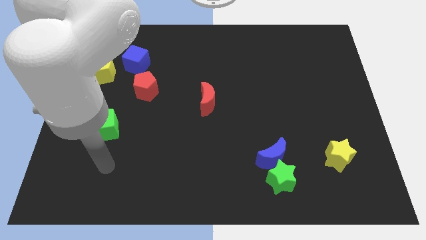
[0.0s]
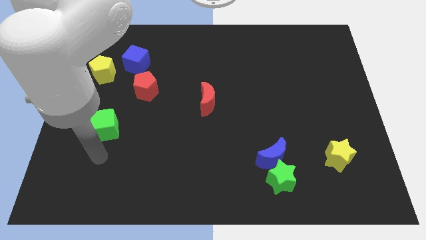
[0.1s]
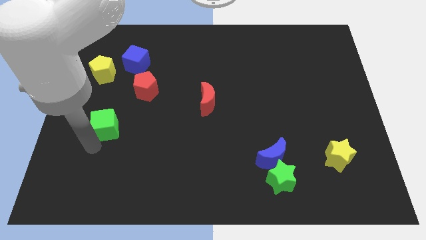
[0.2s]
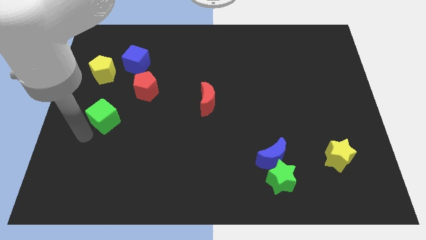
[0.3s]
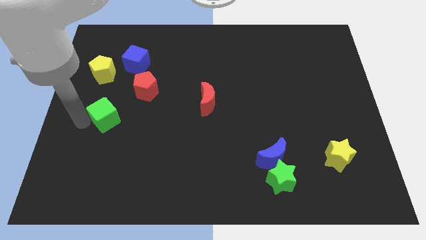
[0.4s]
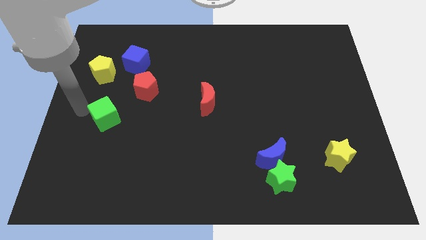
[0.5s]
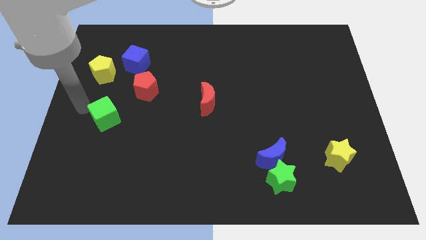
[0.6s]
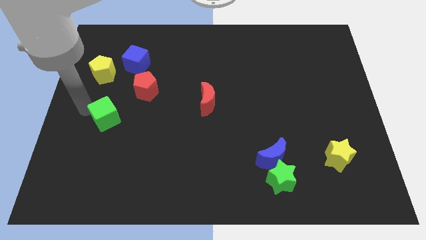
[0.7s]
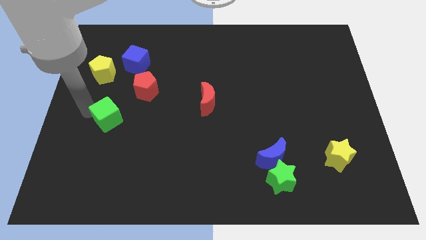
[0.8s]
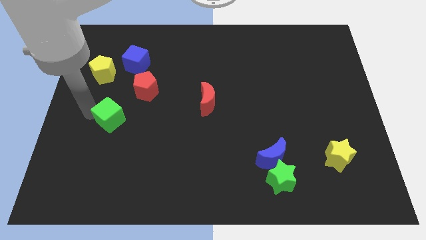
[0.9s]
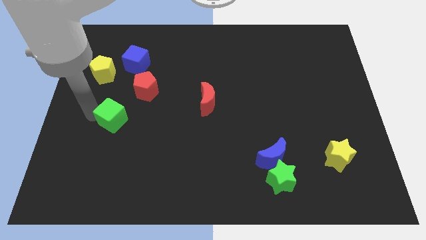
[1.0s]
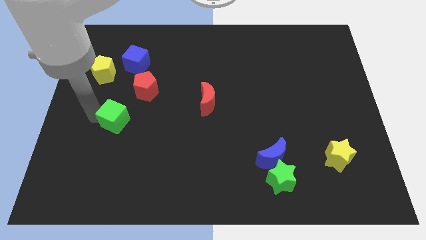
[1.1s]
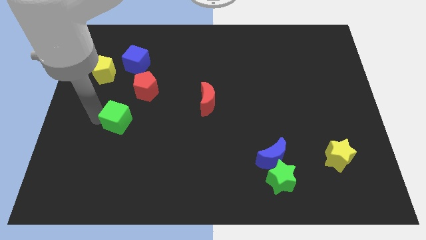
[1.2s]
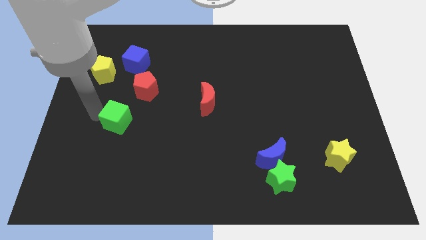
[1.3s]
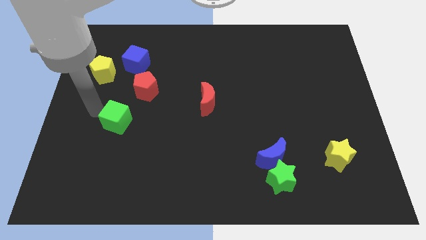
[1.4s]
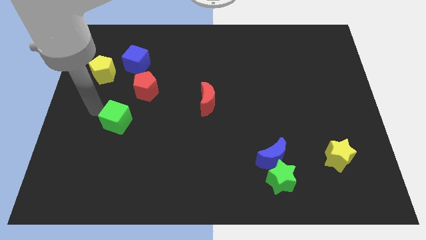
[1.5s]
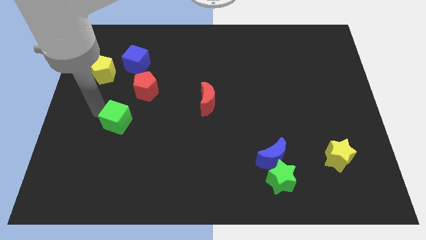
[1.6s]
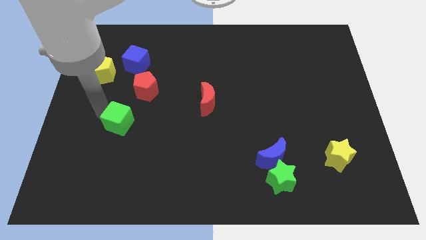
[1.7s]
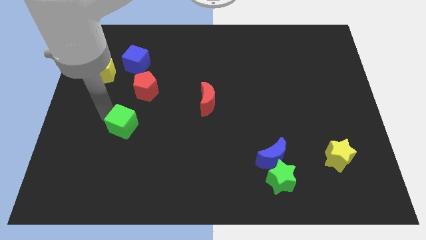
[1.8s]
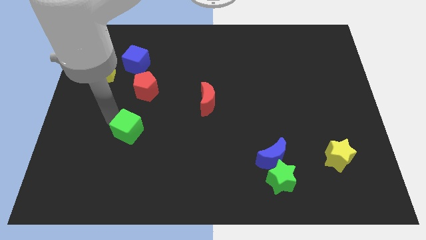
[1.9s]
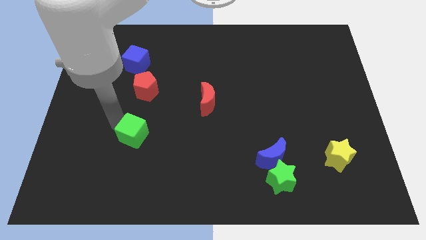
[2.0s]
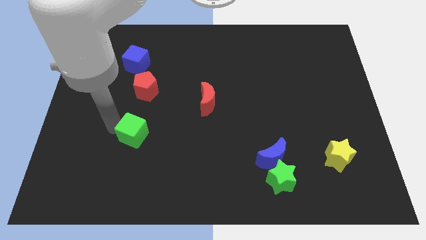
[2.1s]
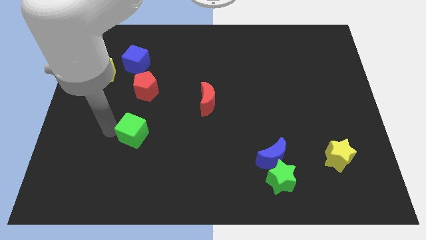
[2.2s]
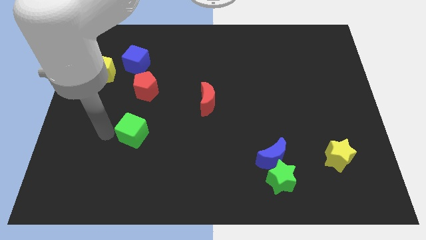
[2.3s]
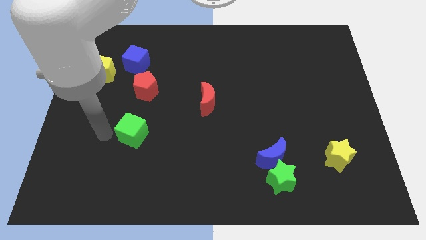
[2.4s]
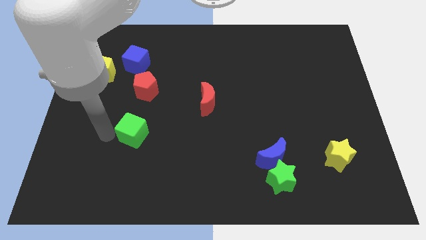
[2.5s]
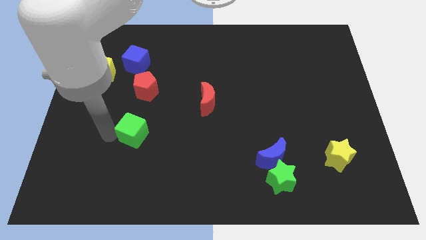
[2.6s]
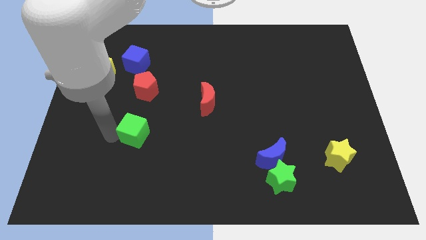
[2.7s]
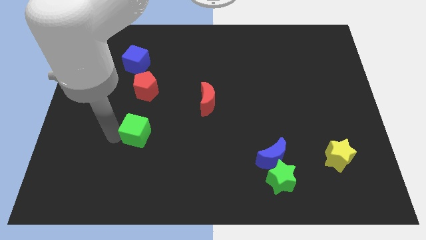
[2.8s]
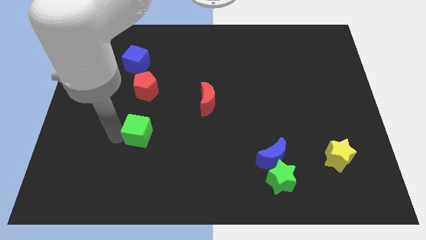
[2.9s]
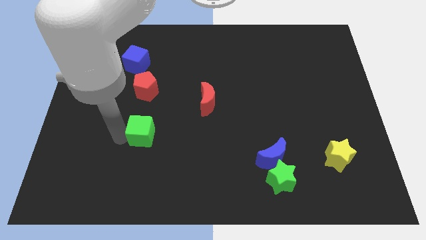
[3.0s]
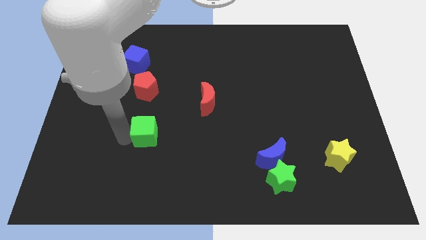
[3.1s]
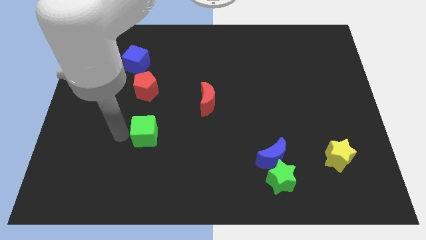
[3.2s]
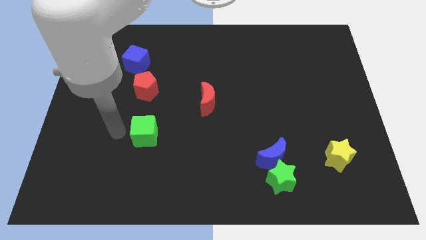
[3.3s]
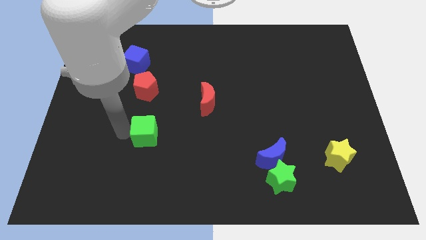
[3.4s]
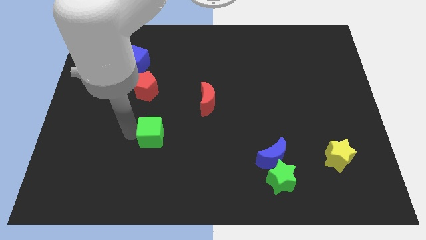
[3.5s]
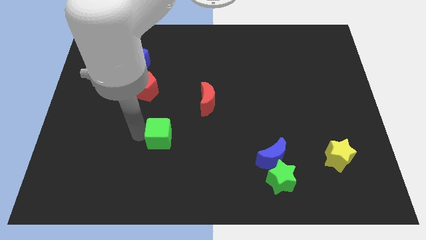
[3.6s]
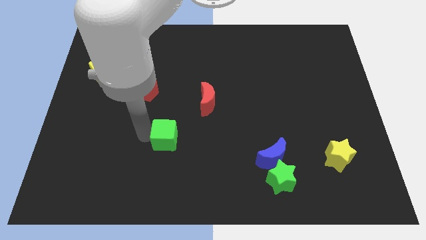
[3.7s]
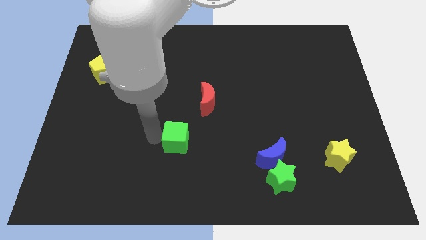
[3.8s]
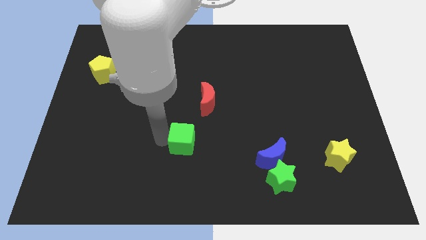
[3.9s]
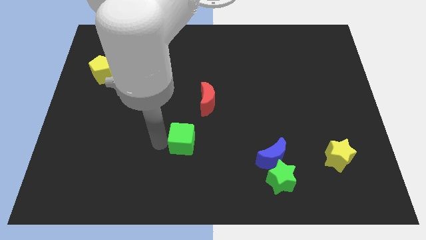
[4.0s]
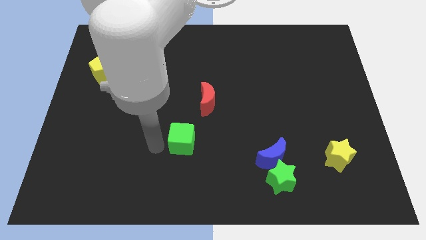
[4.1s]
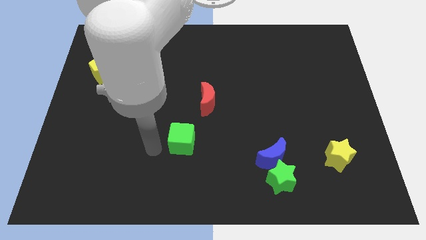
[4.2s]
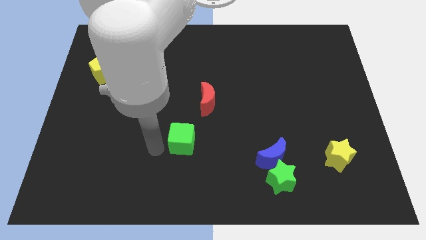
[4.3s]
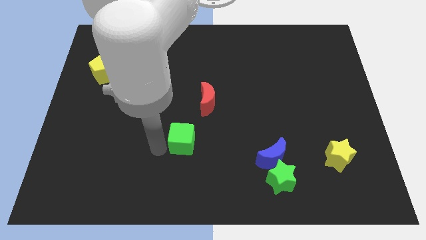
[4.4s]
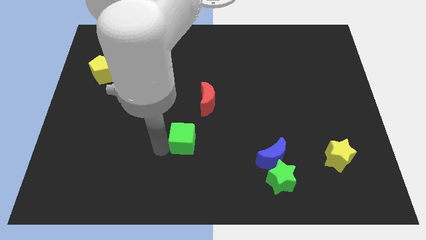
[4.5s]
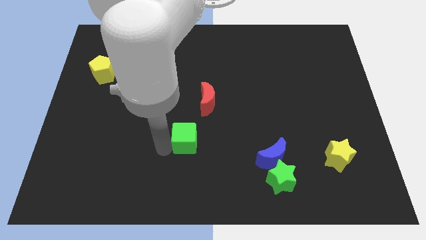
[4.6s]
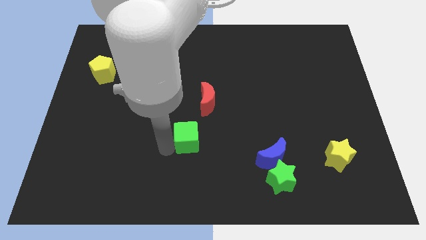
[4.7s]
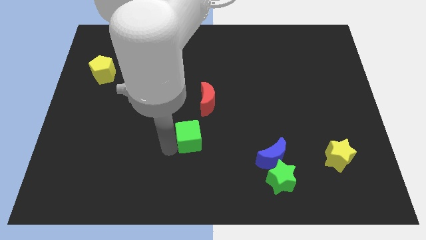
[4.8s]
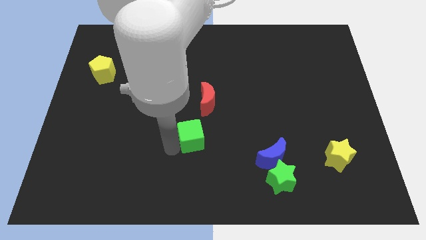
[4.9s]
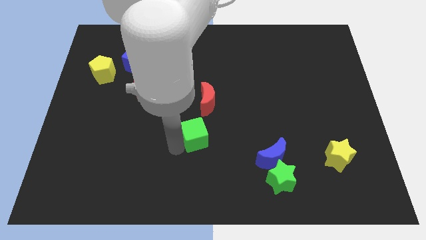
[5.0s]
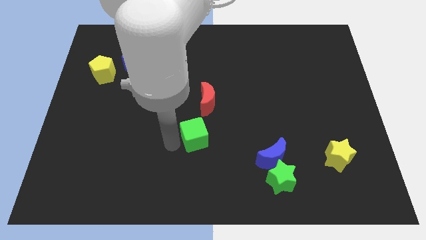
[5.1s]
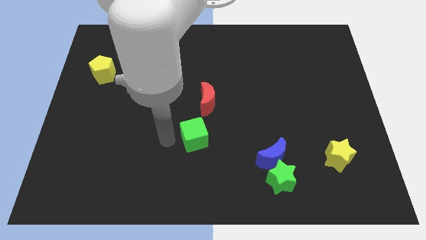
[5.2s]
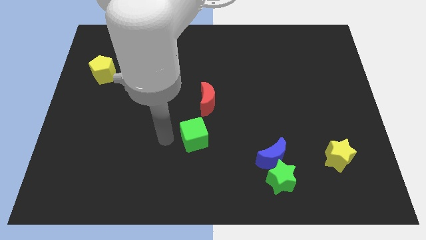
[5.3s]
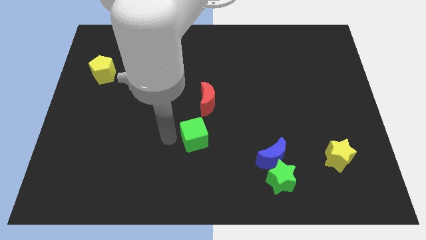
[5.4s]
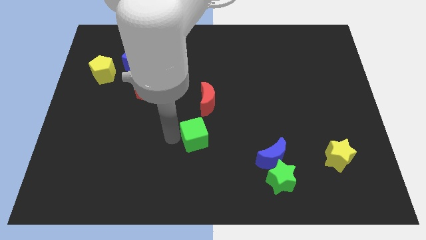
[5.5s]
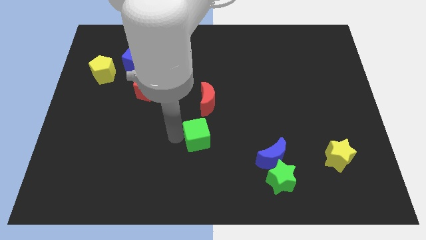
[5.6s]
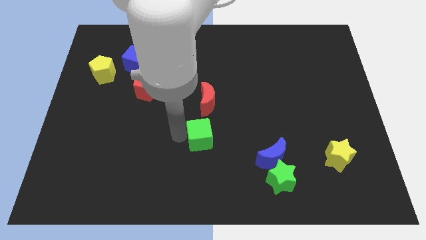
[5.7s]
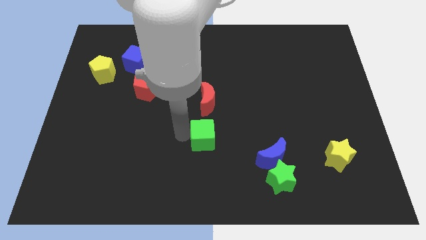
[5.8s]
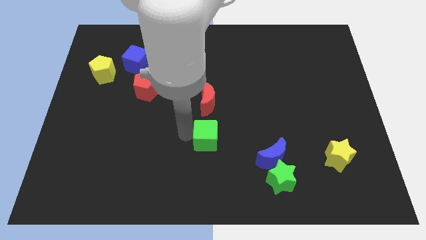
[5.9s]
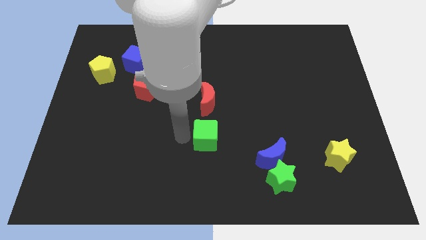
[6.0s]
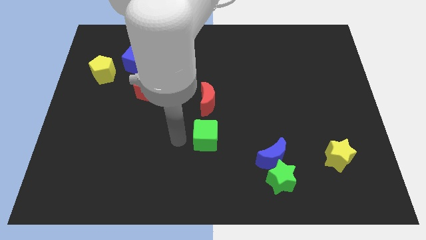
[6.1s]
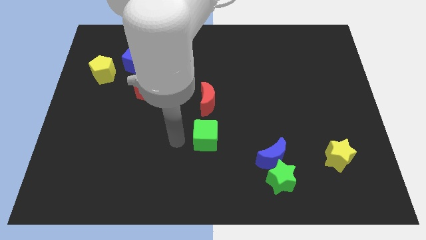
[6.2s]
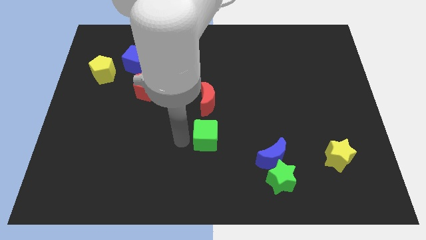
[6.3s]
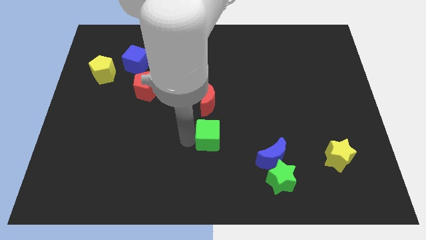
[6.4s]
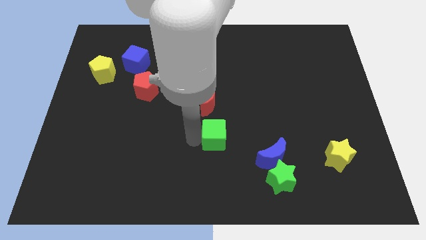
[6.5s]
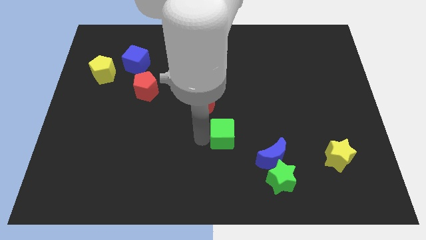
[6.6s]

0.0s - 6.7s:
move the green cube to the top left side of the blue moon
